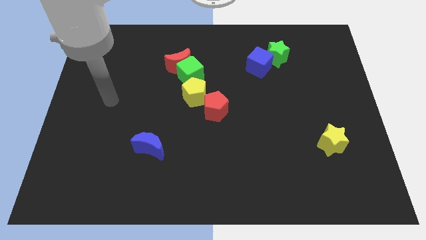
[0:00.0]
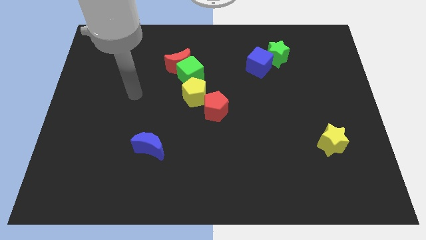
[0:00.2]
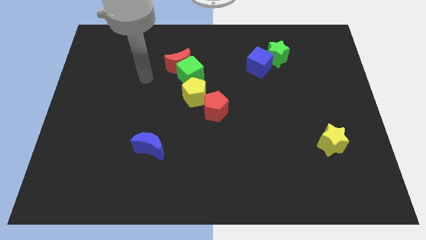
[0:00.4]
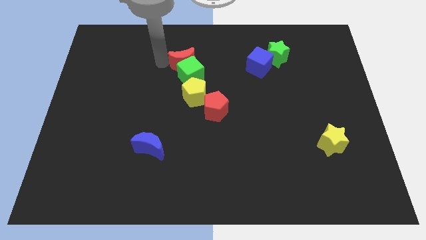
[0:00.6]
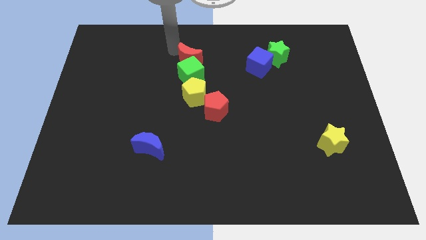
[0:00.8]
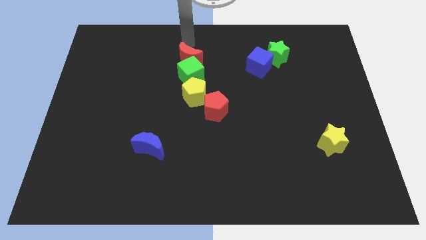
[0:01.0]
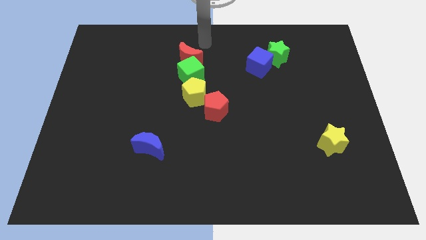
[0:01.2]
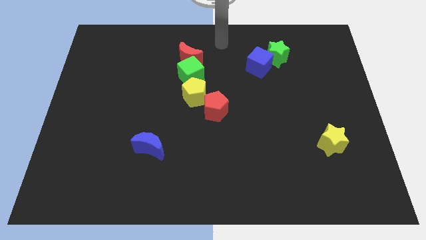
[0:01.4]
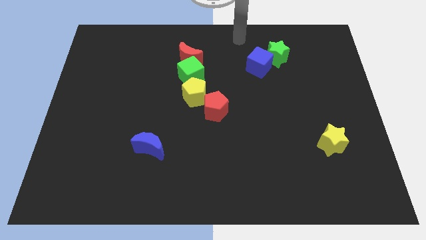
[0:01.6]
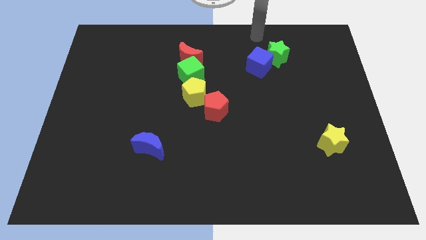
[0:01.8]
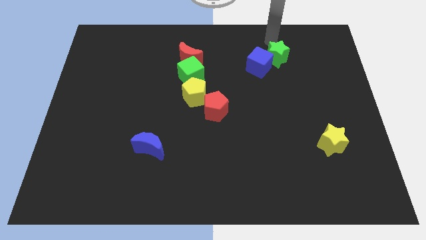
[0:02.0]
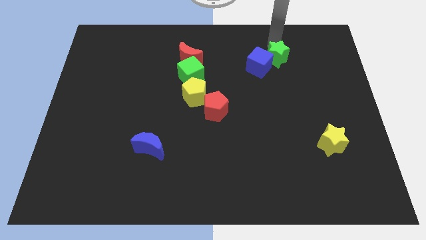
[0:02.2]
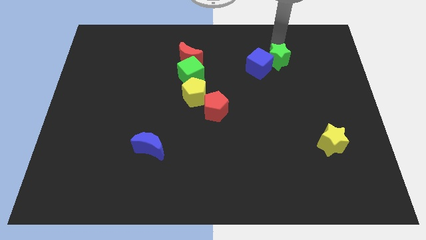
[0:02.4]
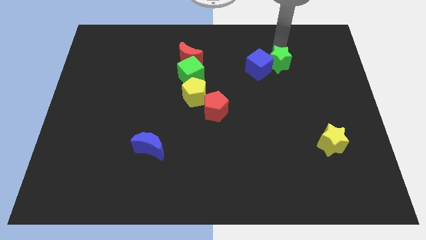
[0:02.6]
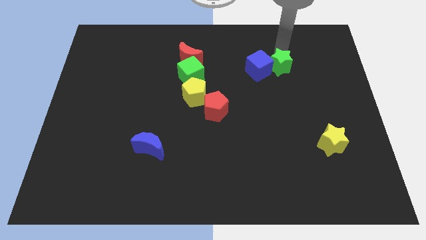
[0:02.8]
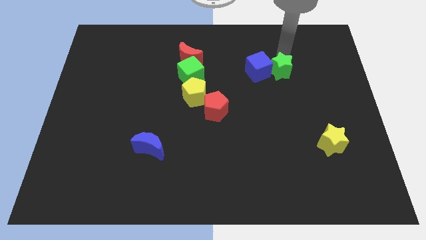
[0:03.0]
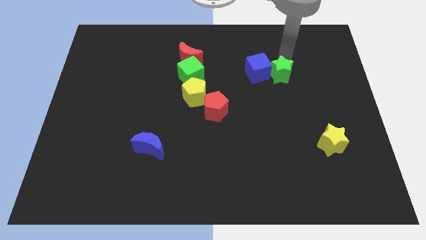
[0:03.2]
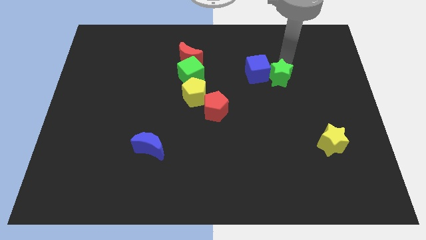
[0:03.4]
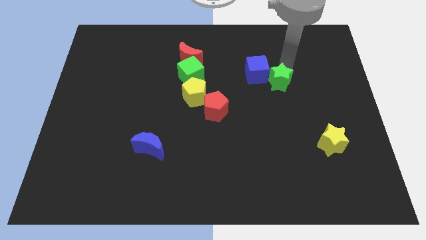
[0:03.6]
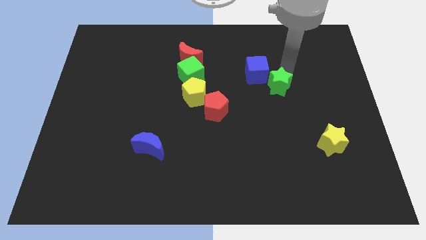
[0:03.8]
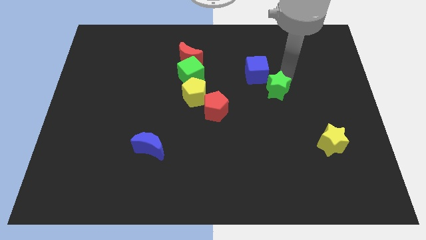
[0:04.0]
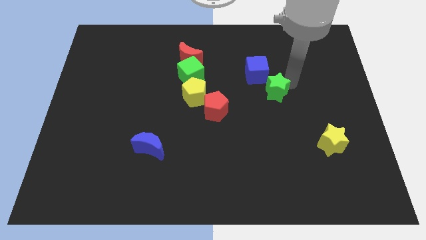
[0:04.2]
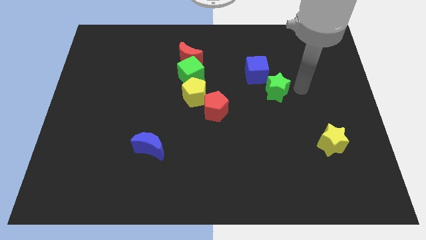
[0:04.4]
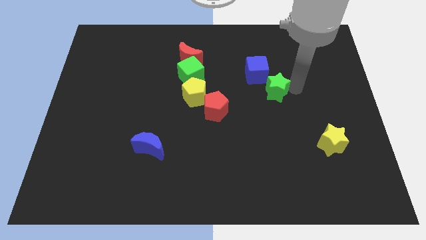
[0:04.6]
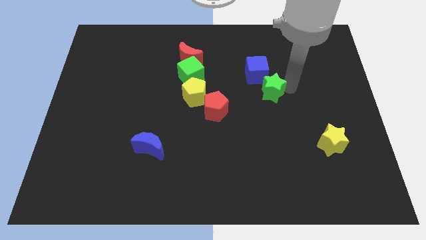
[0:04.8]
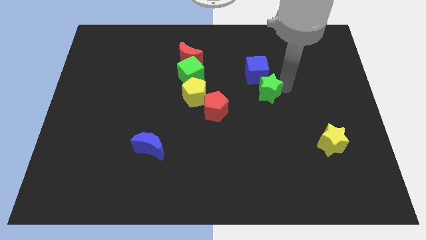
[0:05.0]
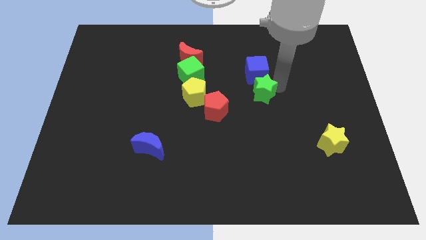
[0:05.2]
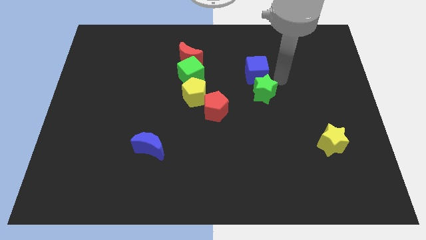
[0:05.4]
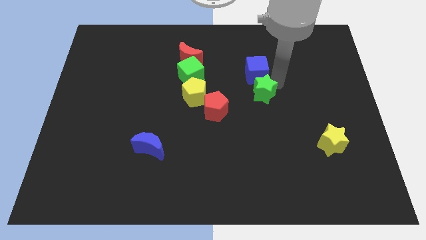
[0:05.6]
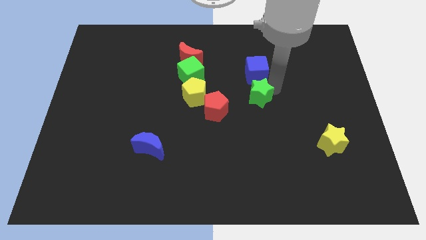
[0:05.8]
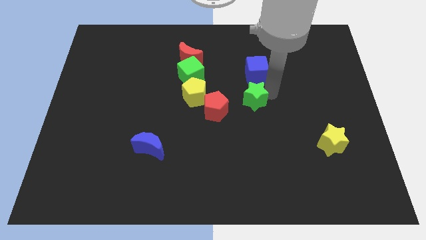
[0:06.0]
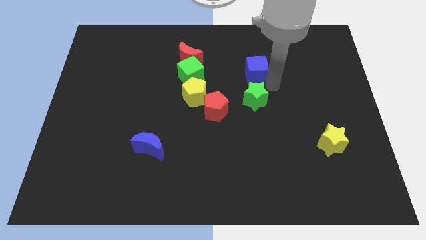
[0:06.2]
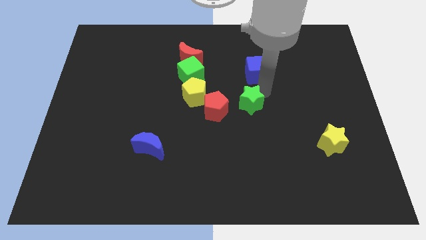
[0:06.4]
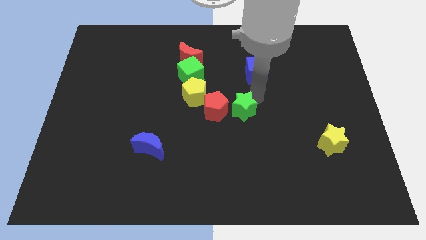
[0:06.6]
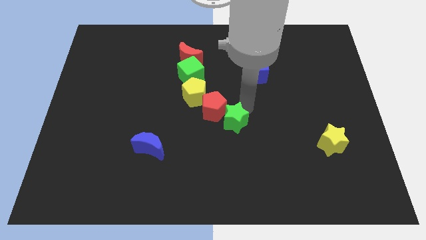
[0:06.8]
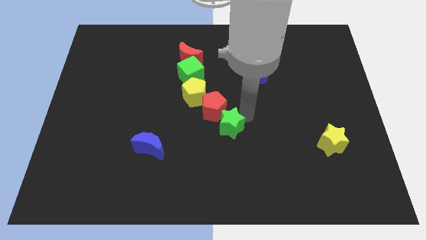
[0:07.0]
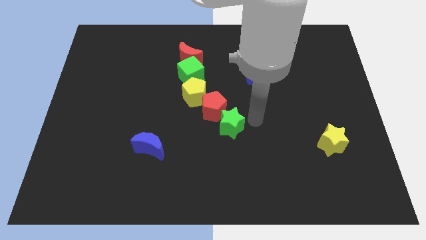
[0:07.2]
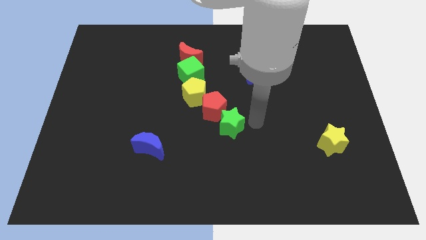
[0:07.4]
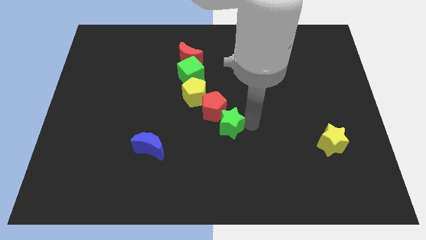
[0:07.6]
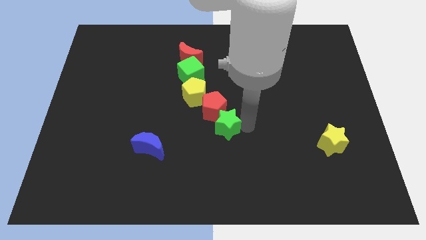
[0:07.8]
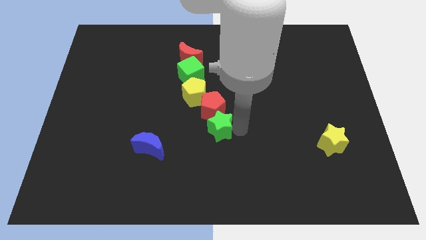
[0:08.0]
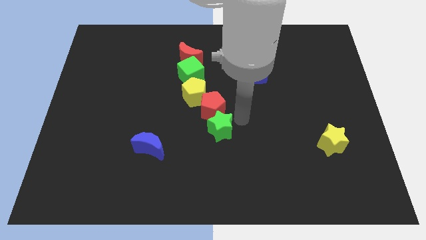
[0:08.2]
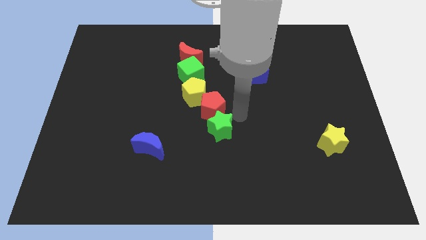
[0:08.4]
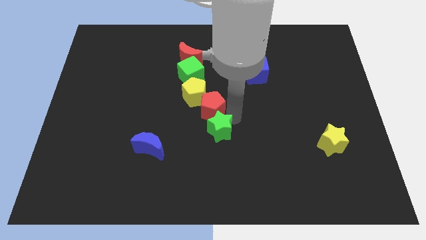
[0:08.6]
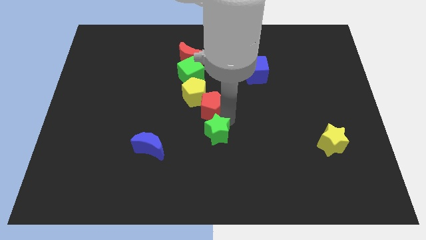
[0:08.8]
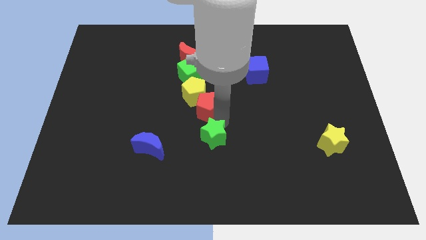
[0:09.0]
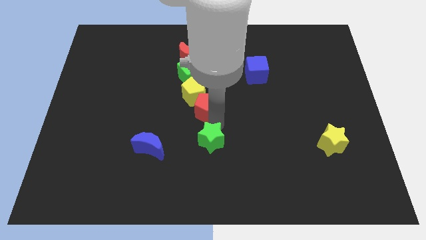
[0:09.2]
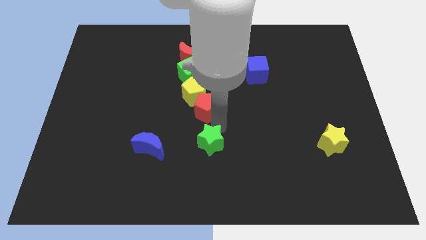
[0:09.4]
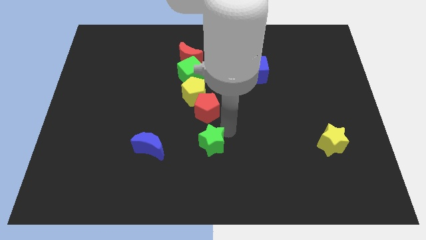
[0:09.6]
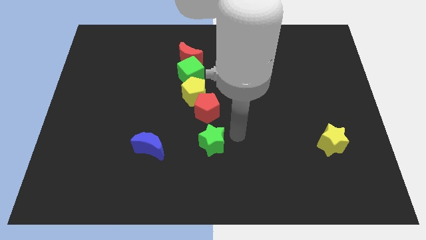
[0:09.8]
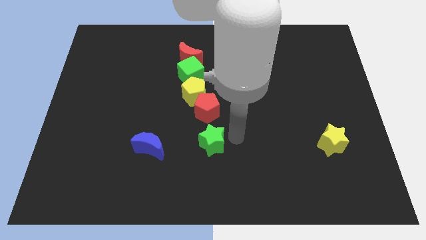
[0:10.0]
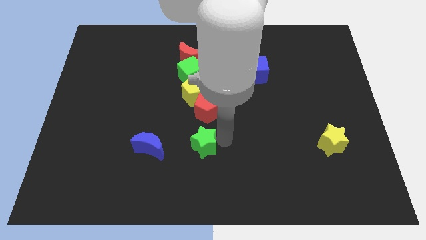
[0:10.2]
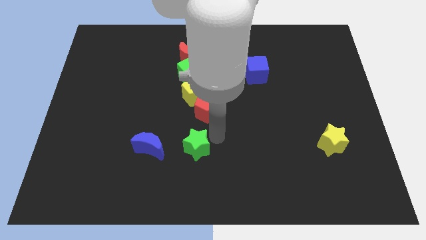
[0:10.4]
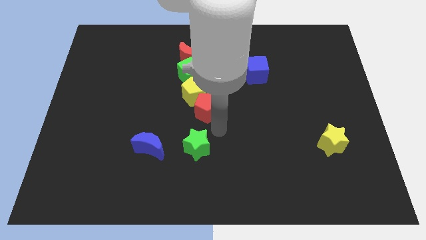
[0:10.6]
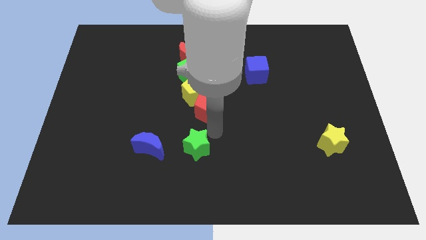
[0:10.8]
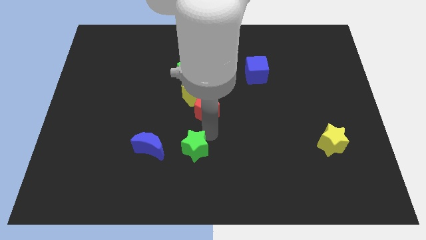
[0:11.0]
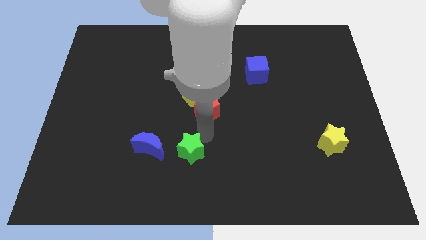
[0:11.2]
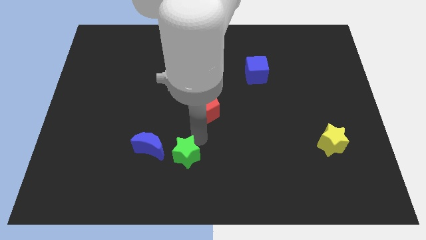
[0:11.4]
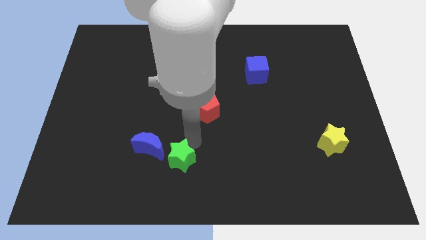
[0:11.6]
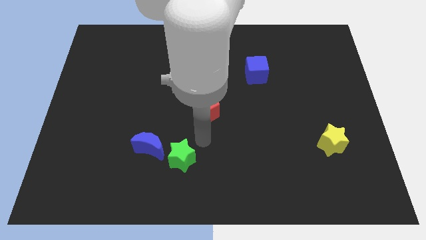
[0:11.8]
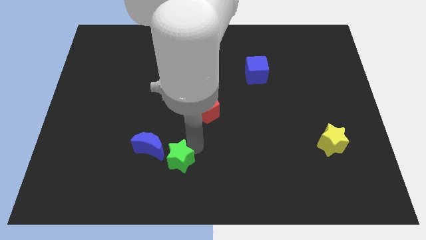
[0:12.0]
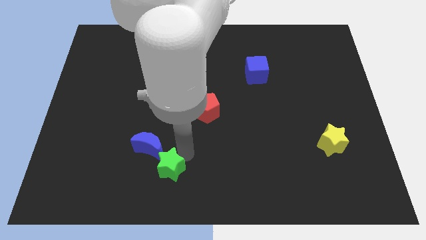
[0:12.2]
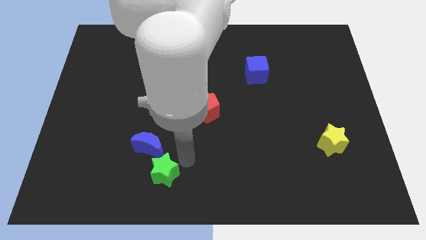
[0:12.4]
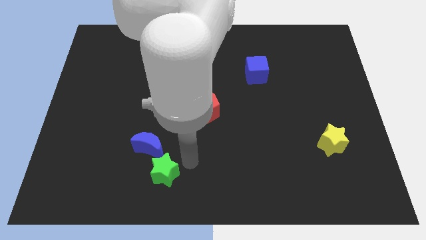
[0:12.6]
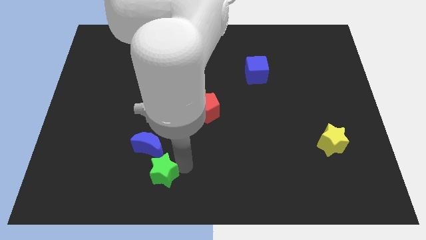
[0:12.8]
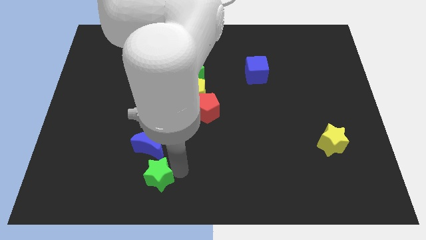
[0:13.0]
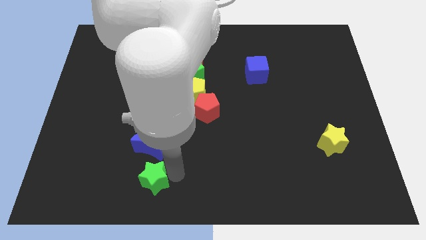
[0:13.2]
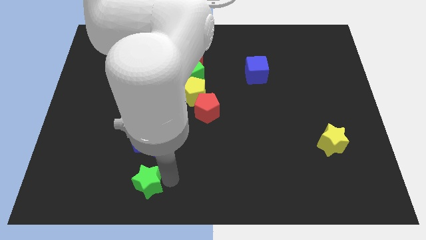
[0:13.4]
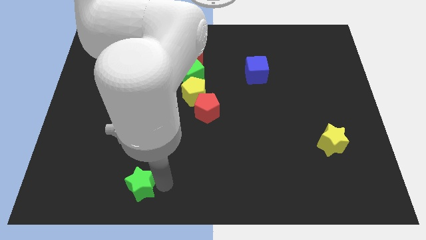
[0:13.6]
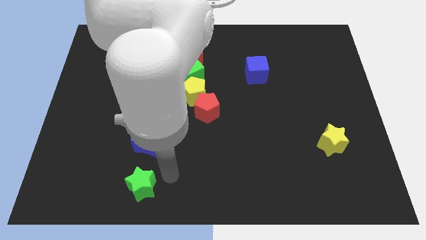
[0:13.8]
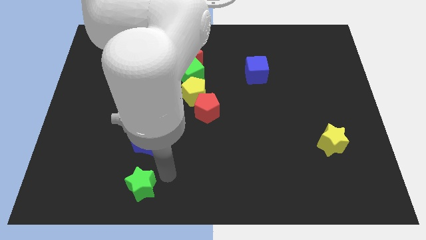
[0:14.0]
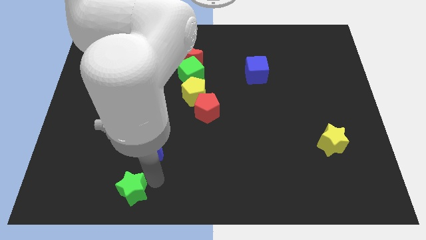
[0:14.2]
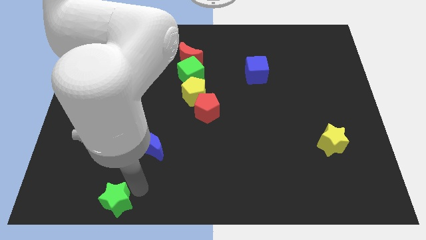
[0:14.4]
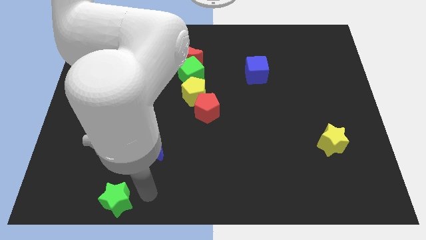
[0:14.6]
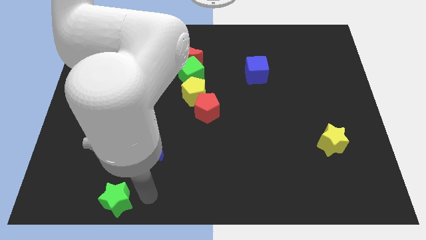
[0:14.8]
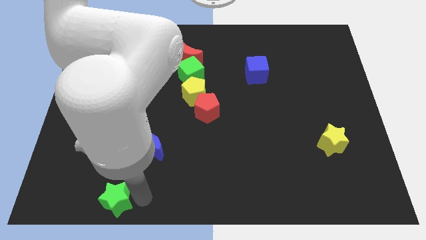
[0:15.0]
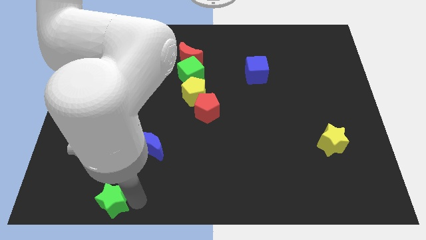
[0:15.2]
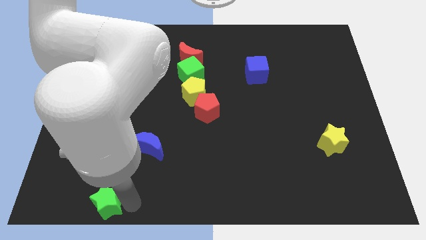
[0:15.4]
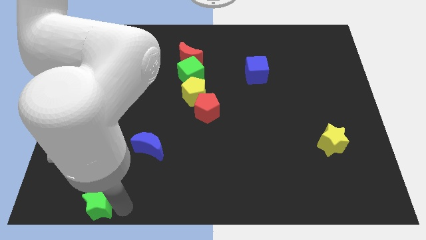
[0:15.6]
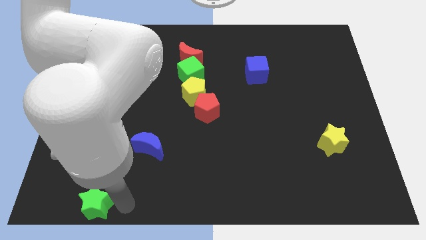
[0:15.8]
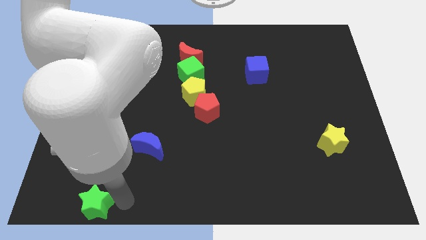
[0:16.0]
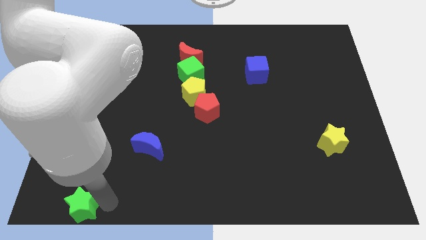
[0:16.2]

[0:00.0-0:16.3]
slide the green star to the bottom left
